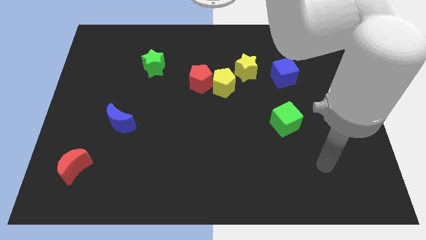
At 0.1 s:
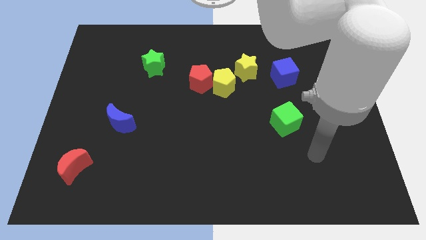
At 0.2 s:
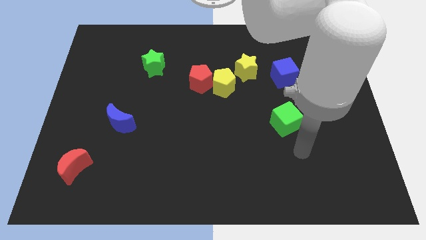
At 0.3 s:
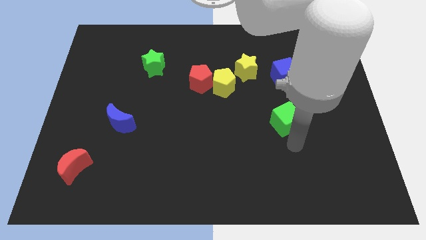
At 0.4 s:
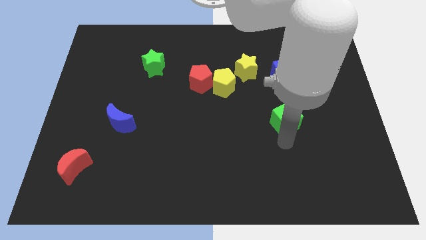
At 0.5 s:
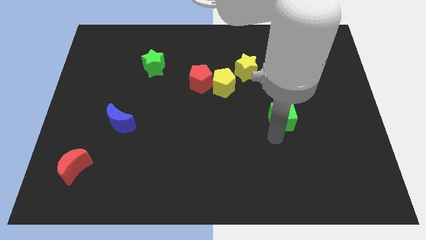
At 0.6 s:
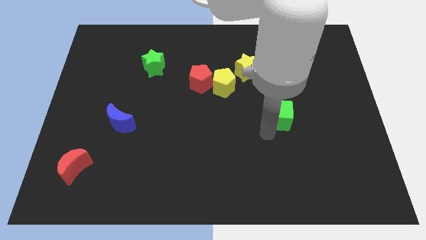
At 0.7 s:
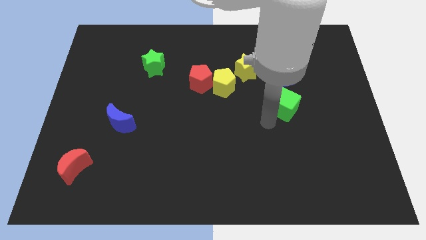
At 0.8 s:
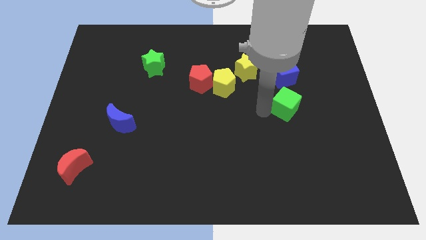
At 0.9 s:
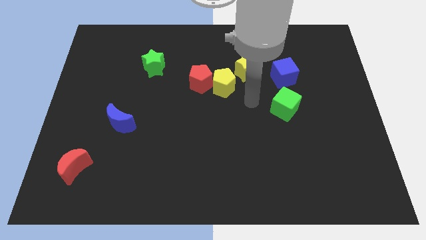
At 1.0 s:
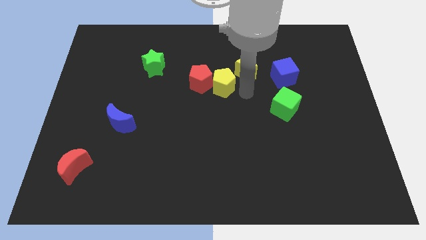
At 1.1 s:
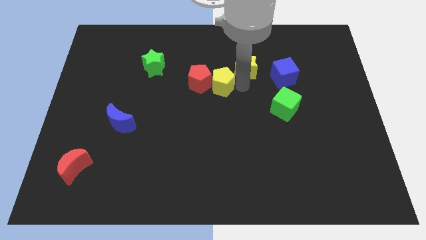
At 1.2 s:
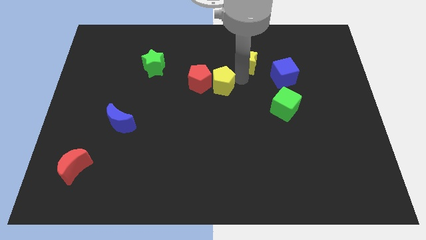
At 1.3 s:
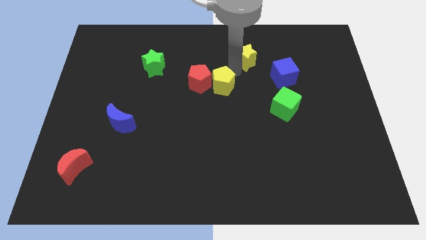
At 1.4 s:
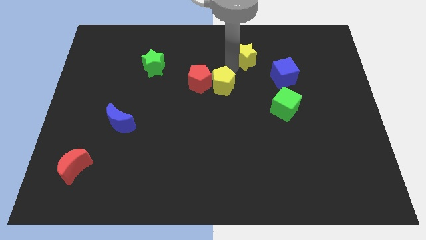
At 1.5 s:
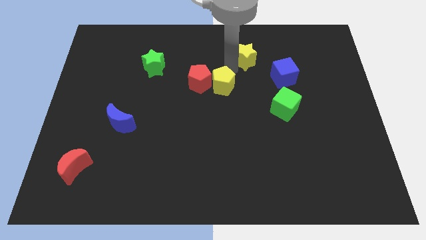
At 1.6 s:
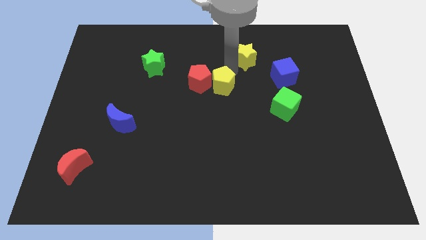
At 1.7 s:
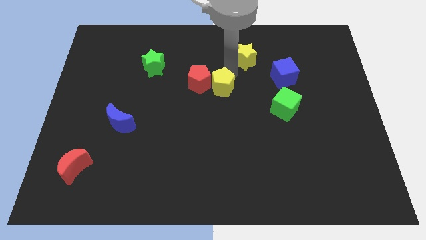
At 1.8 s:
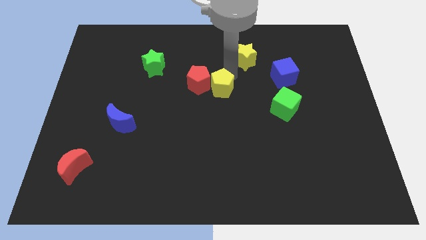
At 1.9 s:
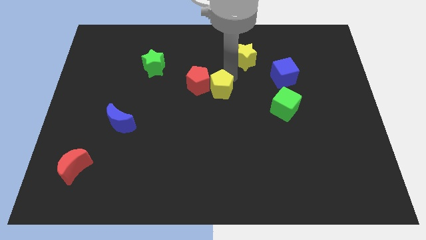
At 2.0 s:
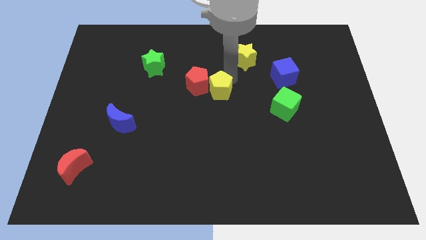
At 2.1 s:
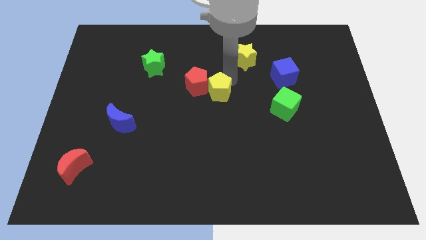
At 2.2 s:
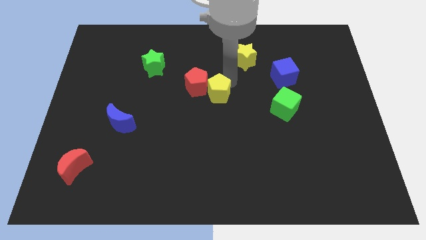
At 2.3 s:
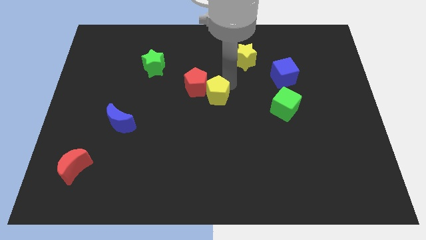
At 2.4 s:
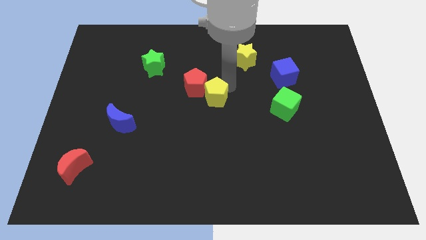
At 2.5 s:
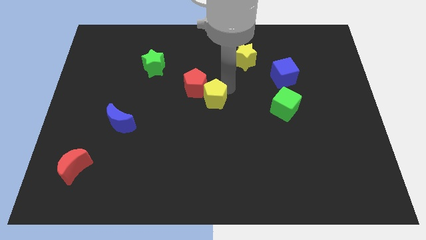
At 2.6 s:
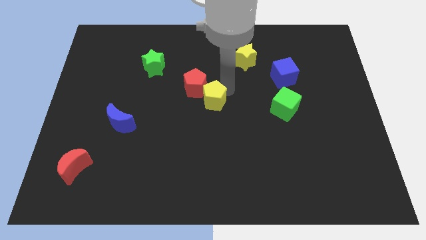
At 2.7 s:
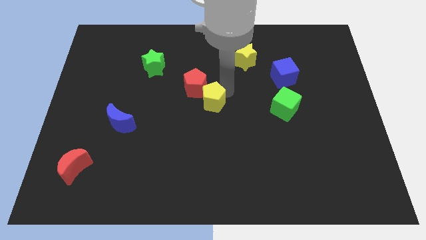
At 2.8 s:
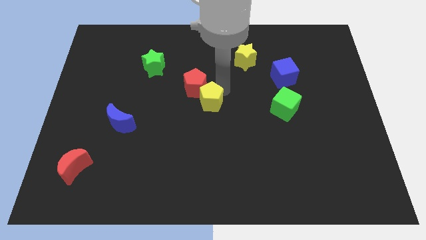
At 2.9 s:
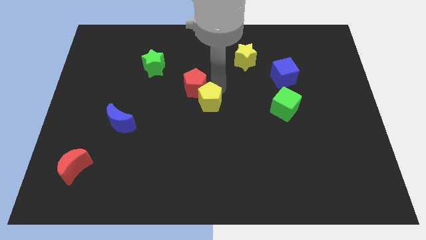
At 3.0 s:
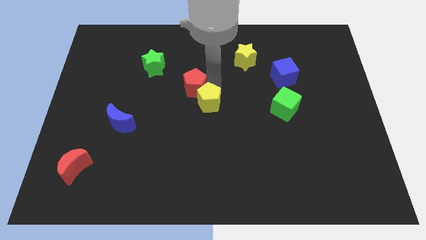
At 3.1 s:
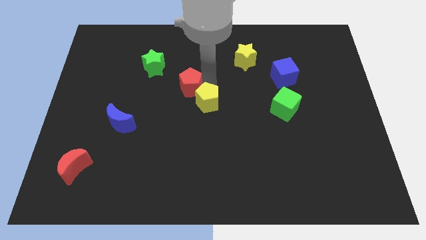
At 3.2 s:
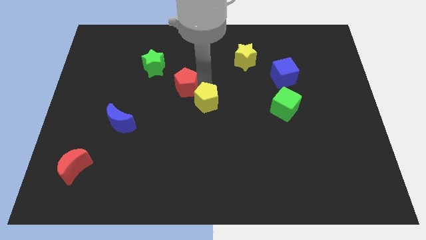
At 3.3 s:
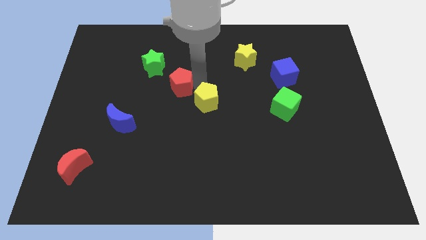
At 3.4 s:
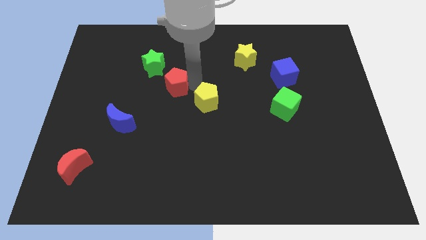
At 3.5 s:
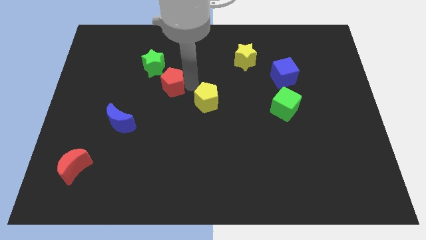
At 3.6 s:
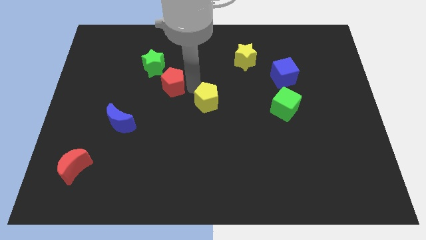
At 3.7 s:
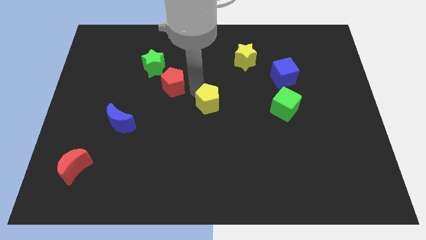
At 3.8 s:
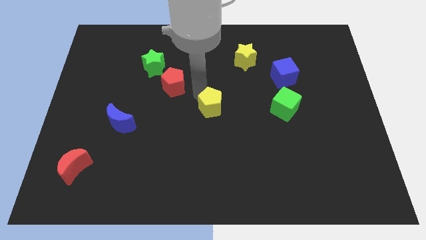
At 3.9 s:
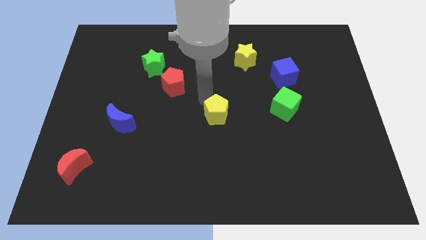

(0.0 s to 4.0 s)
push the yellow pentagon somewhat down

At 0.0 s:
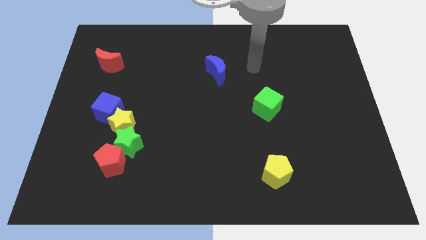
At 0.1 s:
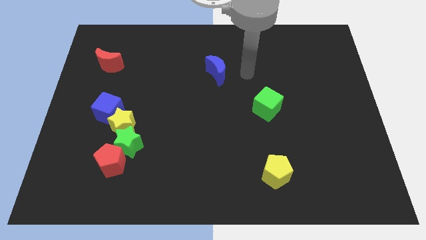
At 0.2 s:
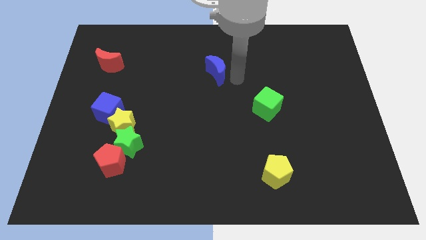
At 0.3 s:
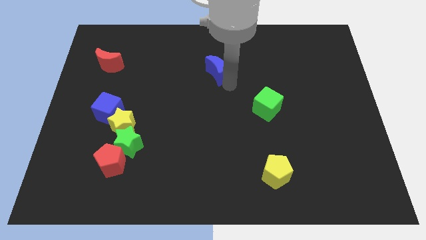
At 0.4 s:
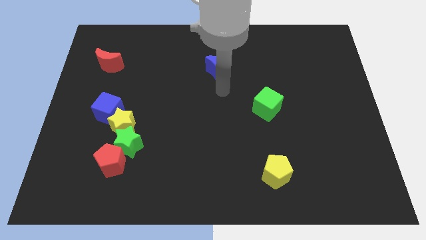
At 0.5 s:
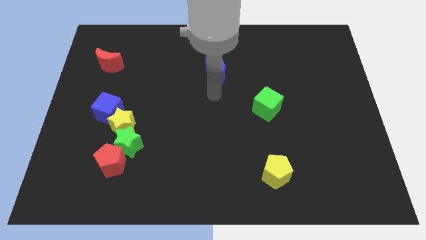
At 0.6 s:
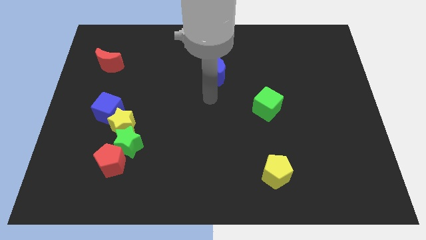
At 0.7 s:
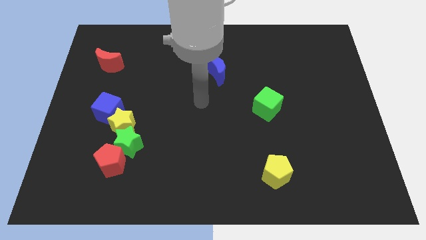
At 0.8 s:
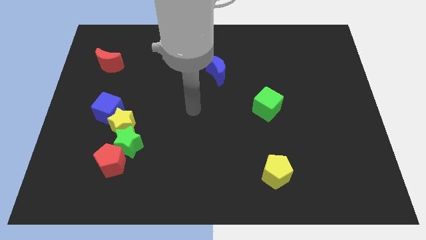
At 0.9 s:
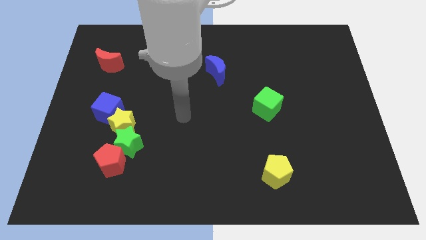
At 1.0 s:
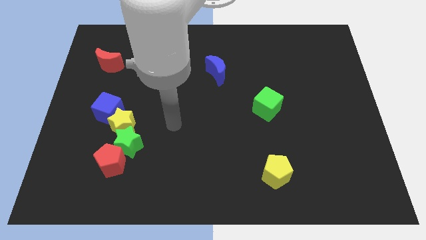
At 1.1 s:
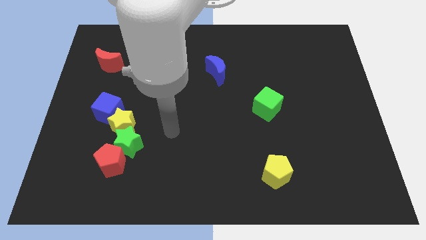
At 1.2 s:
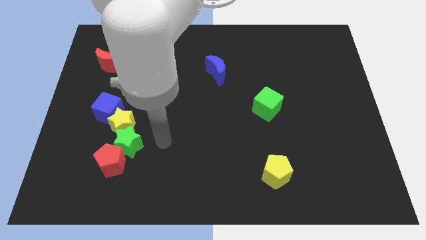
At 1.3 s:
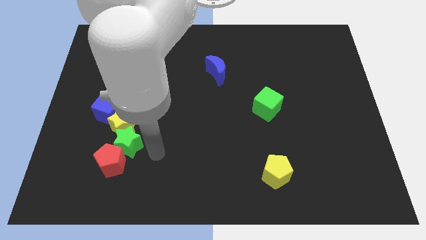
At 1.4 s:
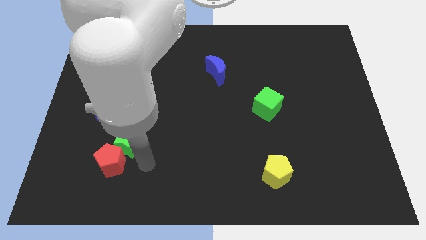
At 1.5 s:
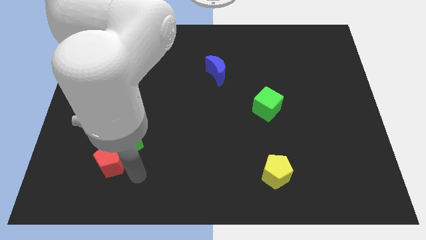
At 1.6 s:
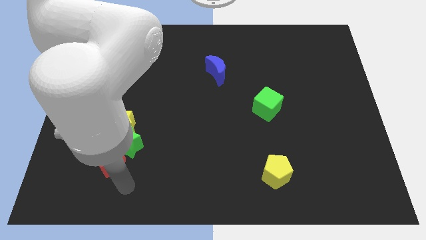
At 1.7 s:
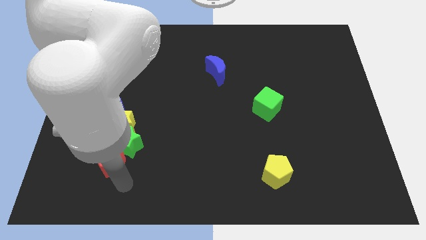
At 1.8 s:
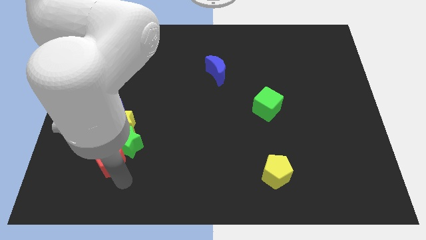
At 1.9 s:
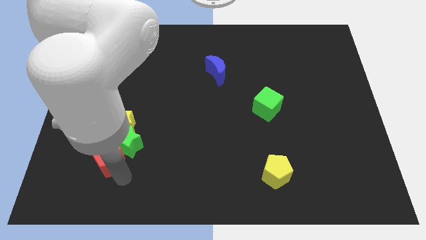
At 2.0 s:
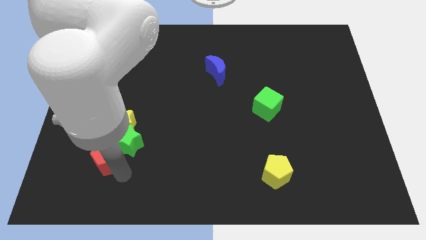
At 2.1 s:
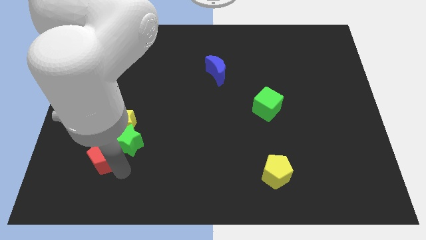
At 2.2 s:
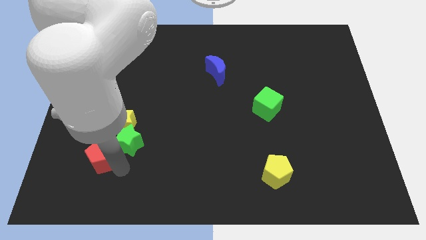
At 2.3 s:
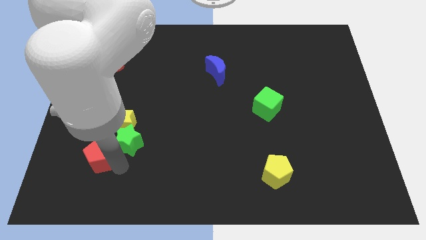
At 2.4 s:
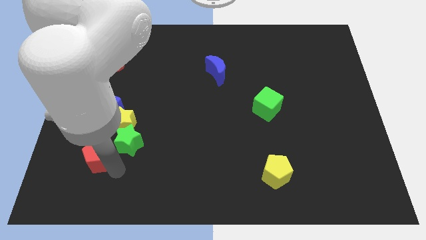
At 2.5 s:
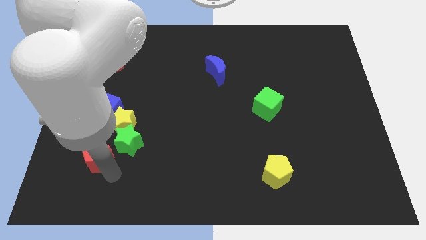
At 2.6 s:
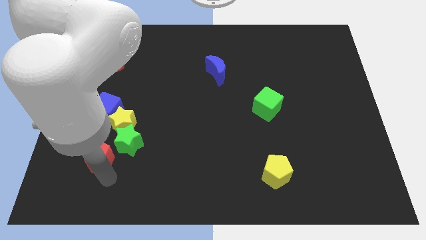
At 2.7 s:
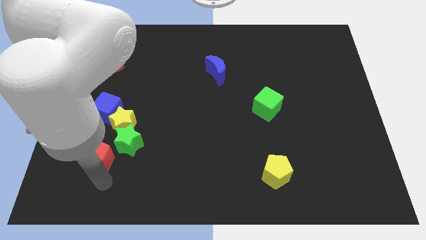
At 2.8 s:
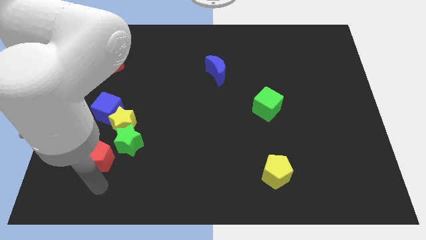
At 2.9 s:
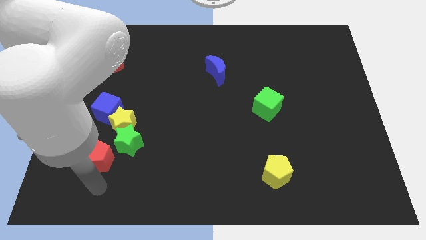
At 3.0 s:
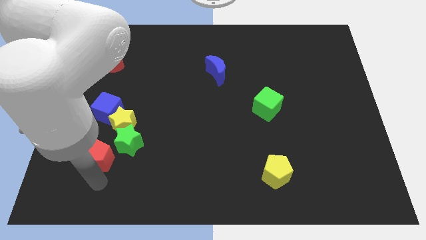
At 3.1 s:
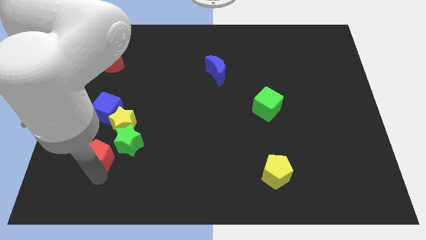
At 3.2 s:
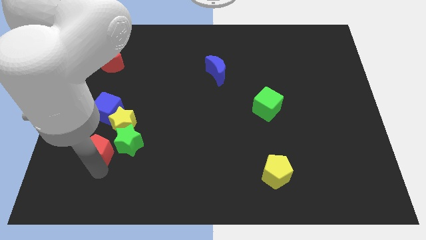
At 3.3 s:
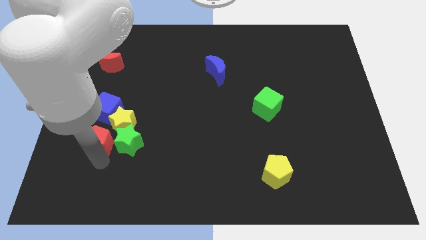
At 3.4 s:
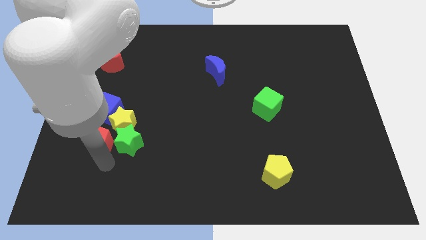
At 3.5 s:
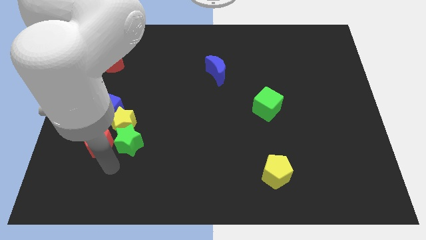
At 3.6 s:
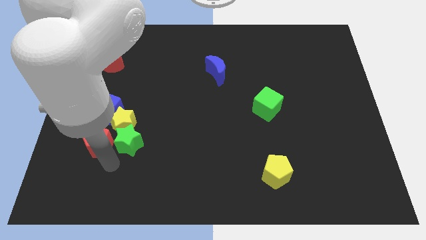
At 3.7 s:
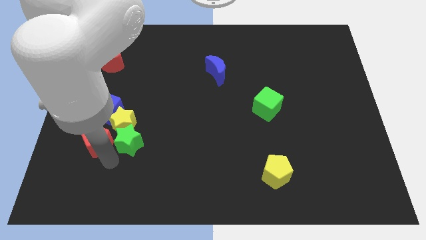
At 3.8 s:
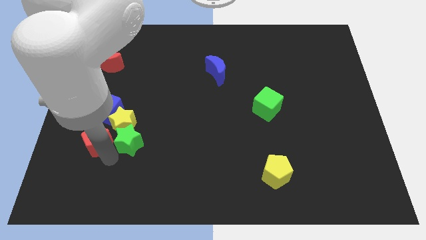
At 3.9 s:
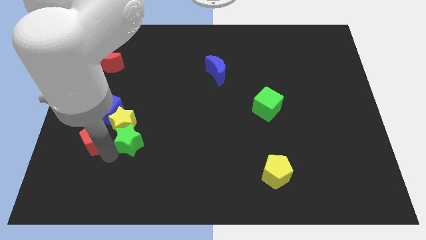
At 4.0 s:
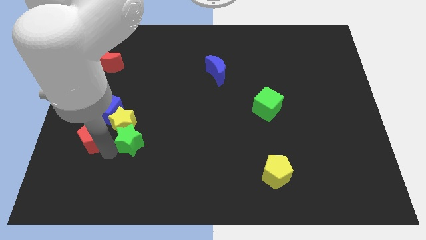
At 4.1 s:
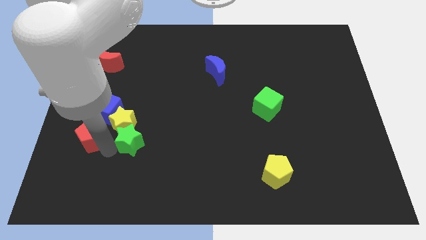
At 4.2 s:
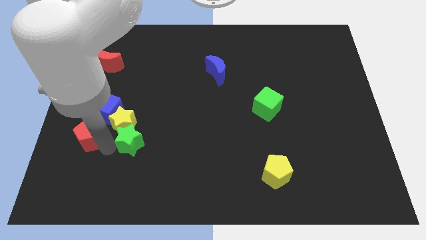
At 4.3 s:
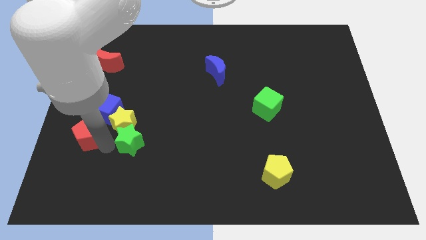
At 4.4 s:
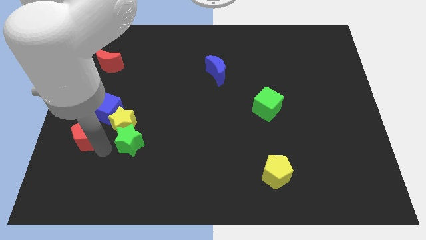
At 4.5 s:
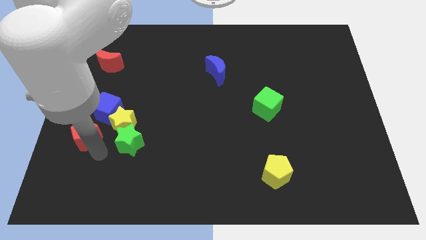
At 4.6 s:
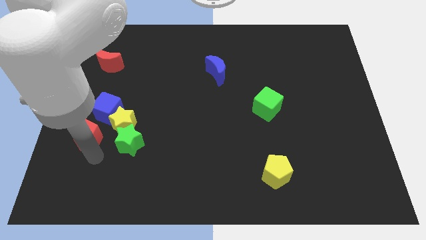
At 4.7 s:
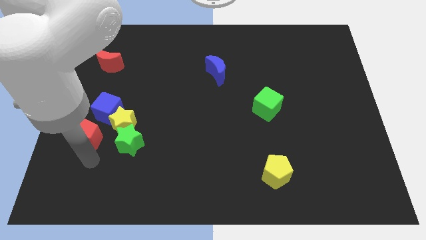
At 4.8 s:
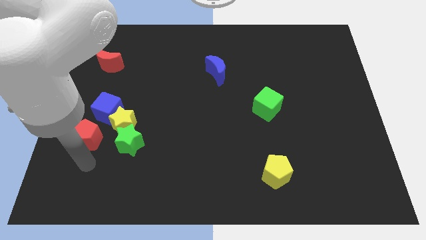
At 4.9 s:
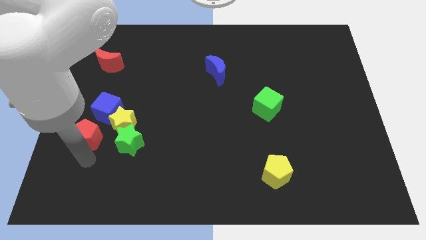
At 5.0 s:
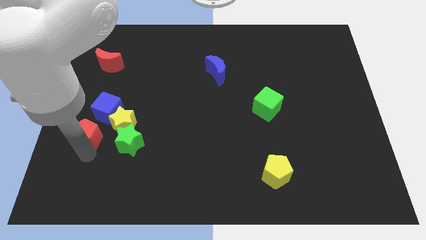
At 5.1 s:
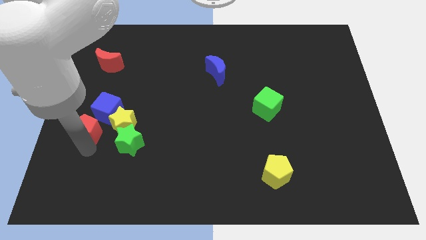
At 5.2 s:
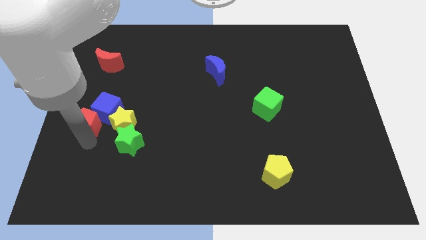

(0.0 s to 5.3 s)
slightly move the red pentagon up
